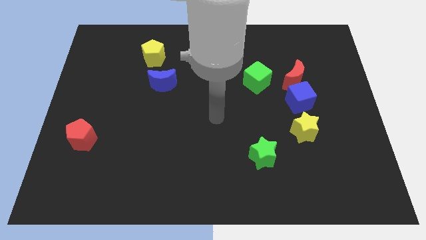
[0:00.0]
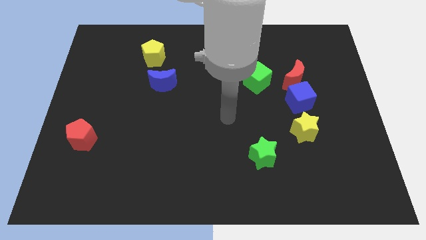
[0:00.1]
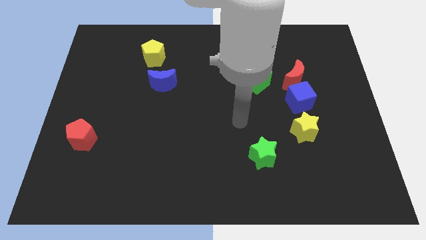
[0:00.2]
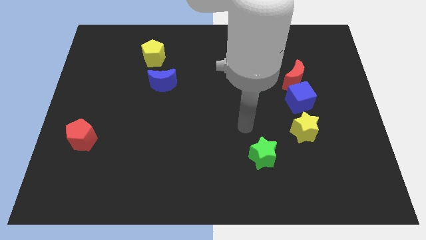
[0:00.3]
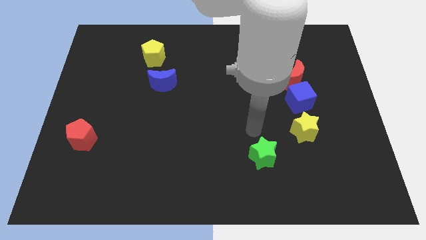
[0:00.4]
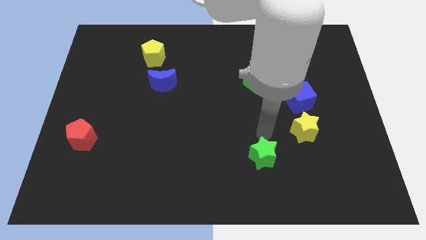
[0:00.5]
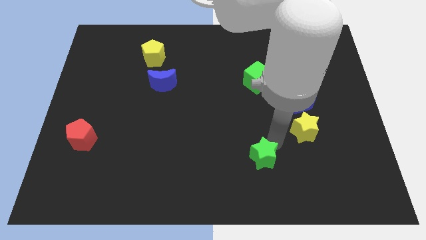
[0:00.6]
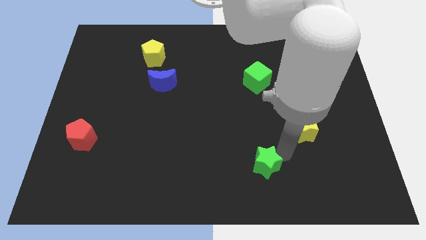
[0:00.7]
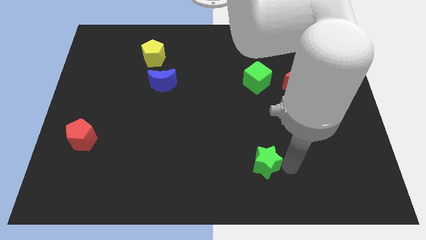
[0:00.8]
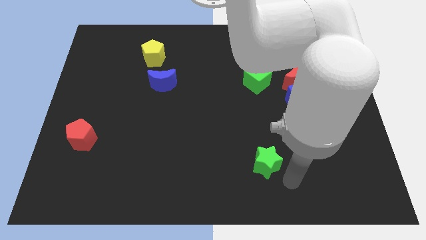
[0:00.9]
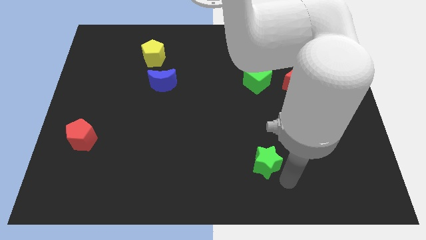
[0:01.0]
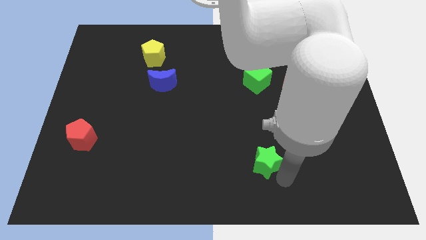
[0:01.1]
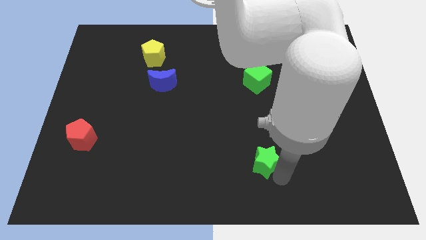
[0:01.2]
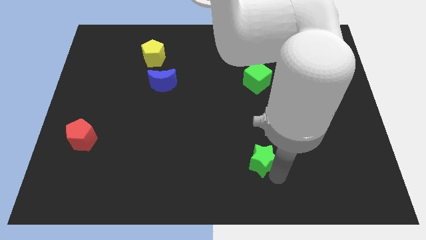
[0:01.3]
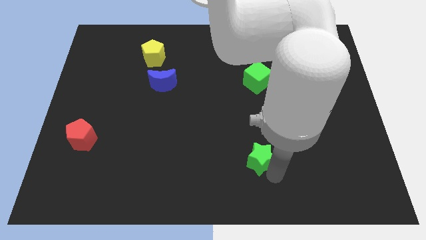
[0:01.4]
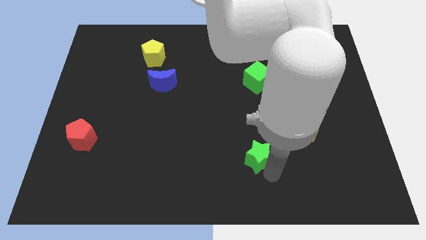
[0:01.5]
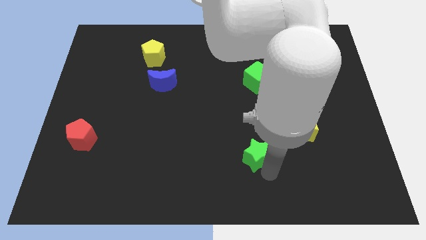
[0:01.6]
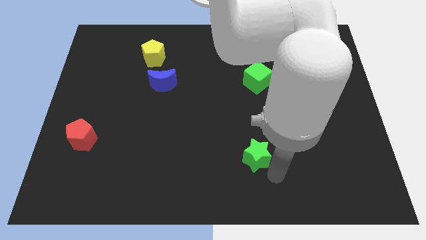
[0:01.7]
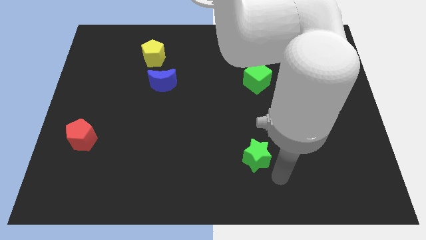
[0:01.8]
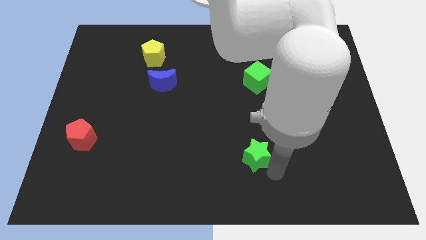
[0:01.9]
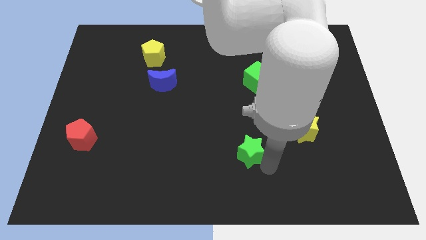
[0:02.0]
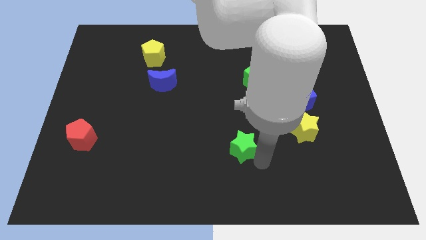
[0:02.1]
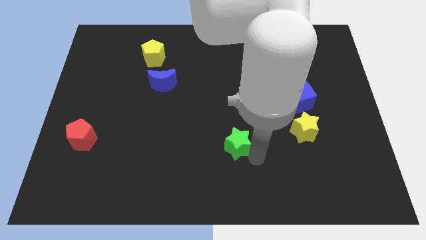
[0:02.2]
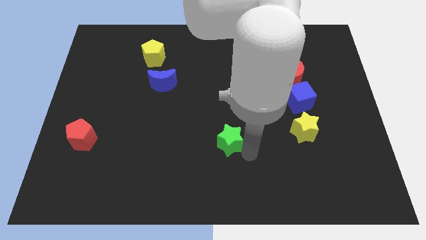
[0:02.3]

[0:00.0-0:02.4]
slightly move the green star upwards and left

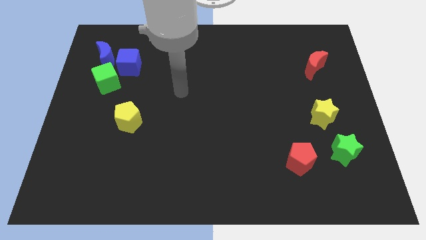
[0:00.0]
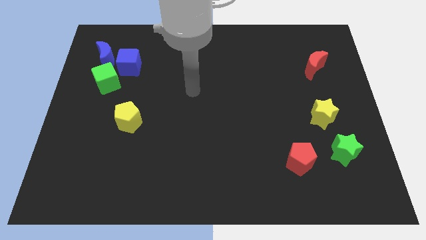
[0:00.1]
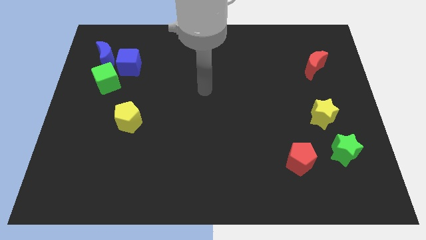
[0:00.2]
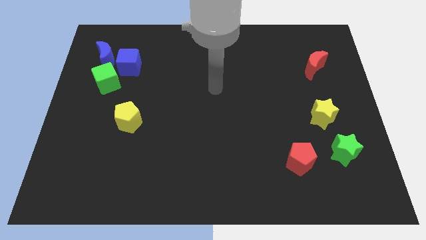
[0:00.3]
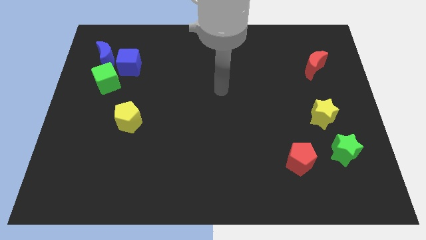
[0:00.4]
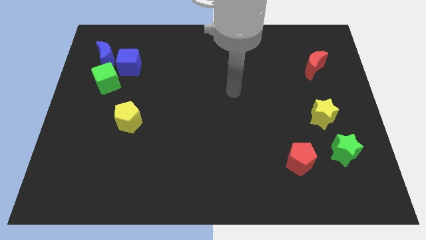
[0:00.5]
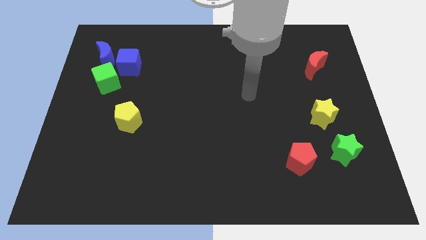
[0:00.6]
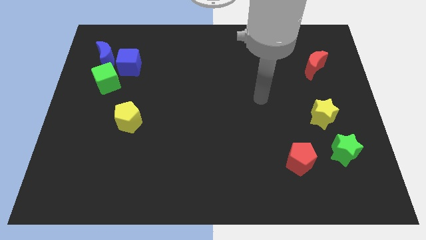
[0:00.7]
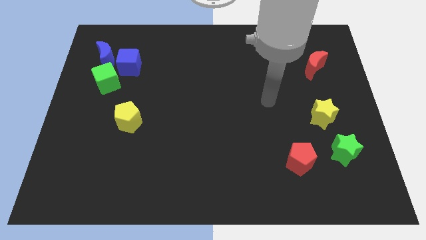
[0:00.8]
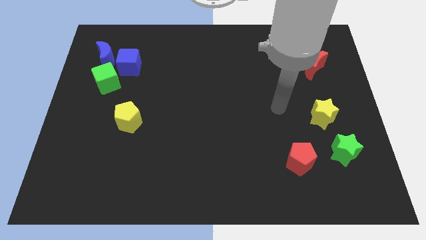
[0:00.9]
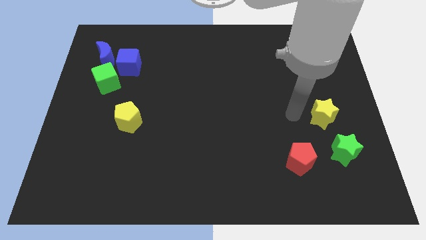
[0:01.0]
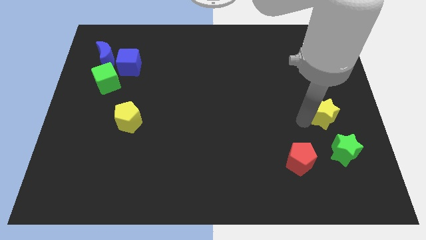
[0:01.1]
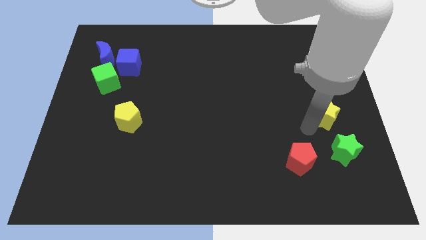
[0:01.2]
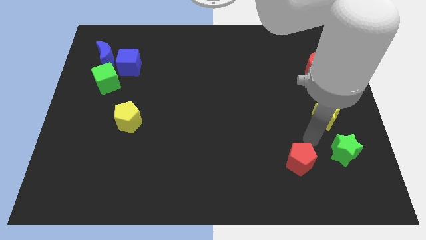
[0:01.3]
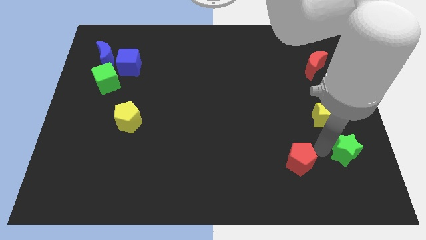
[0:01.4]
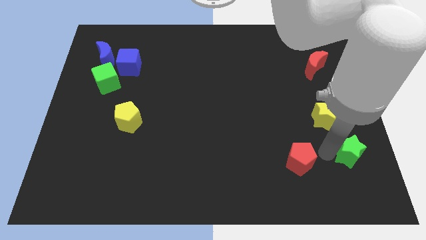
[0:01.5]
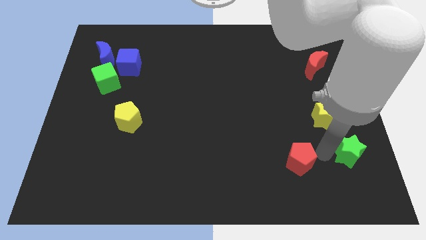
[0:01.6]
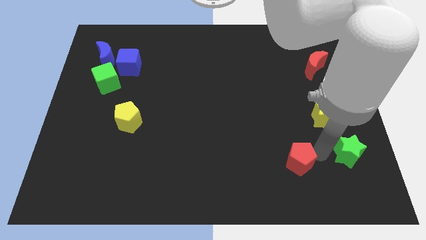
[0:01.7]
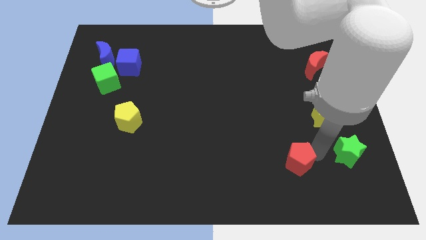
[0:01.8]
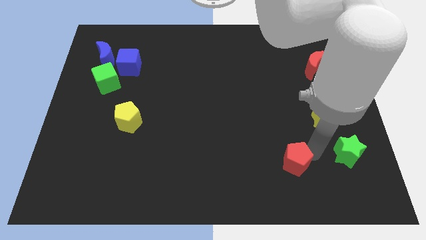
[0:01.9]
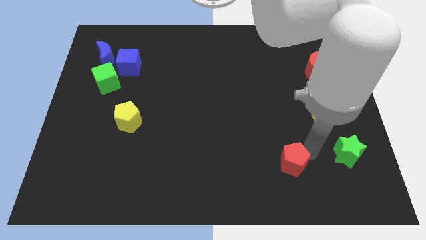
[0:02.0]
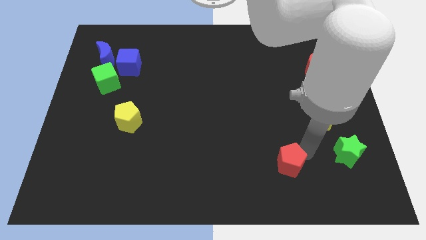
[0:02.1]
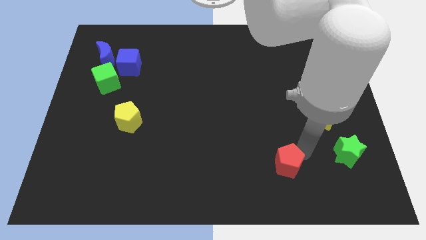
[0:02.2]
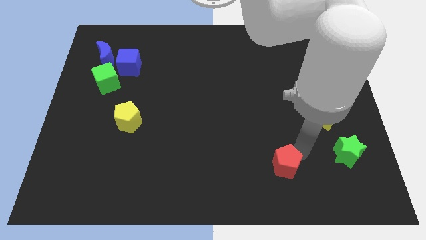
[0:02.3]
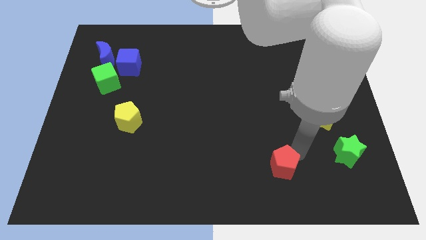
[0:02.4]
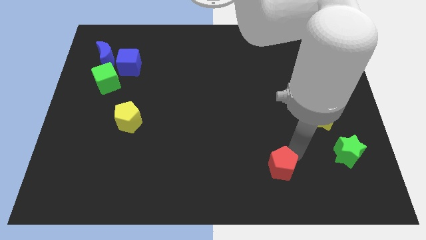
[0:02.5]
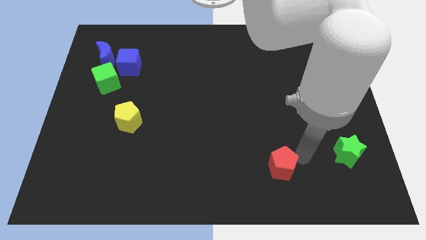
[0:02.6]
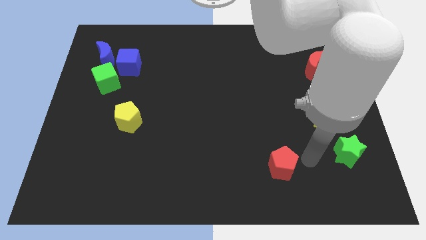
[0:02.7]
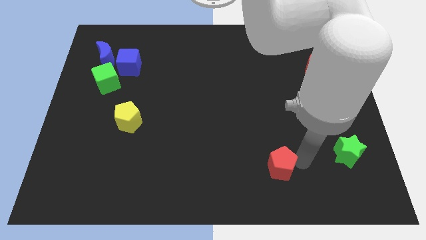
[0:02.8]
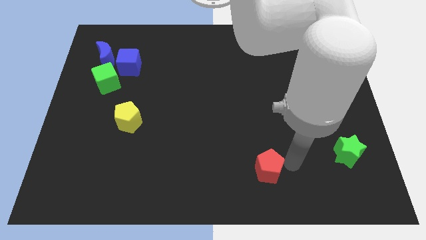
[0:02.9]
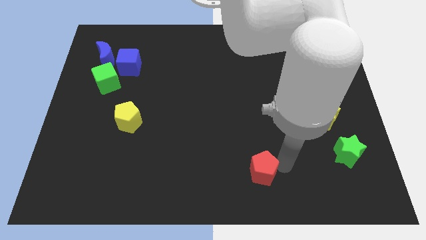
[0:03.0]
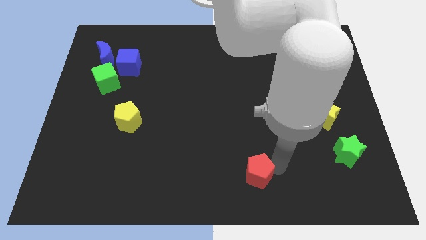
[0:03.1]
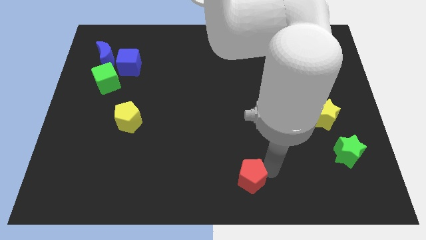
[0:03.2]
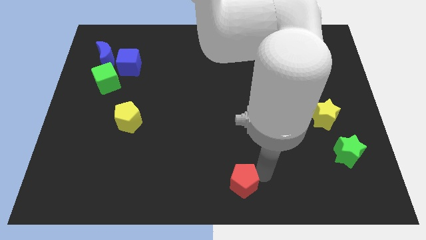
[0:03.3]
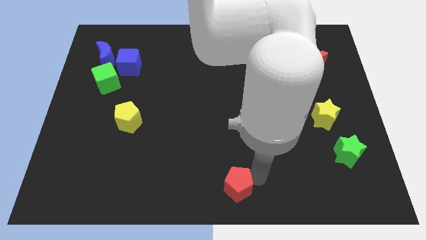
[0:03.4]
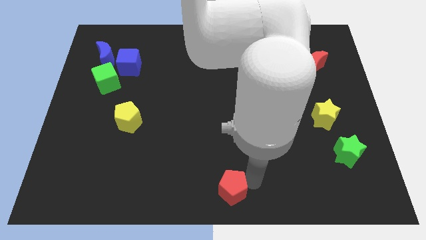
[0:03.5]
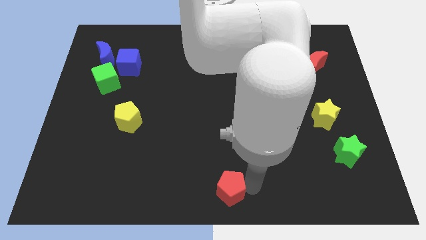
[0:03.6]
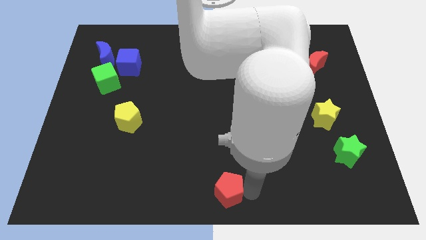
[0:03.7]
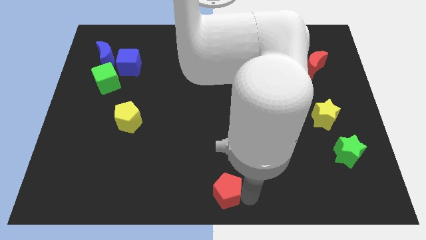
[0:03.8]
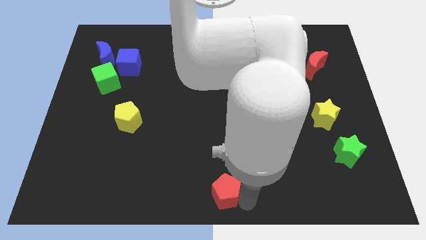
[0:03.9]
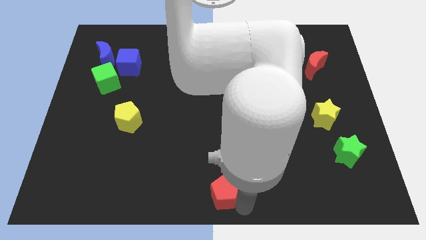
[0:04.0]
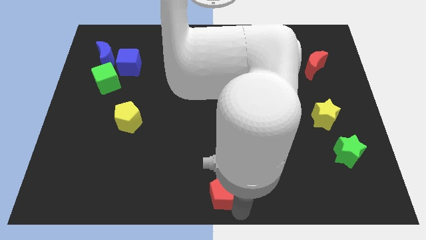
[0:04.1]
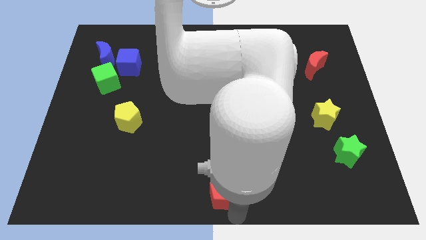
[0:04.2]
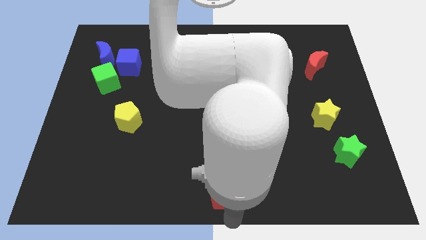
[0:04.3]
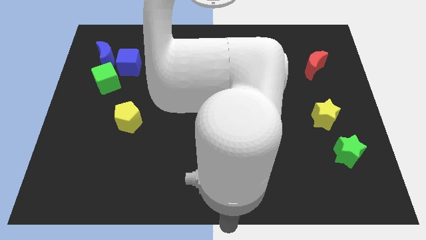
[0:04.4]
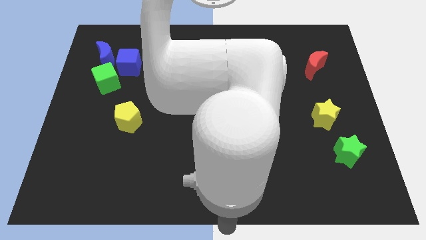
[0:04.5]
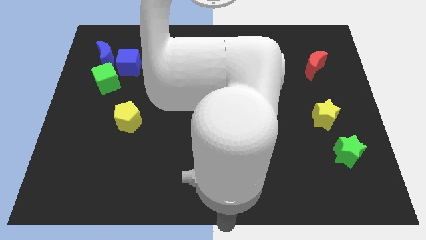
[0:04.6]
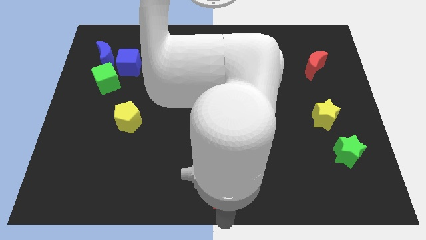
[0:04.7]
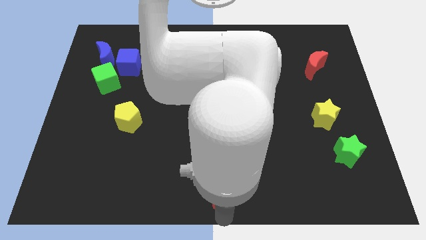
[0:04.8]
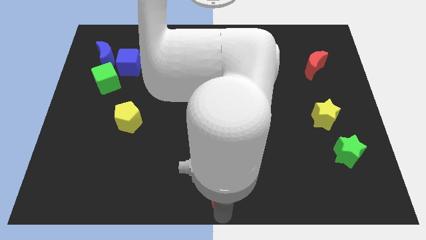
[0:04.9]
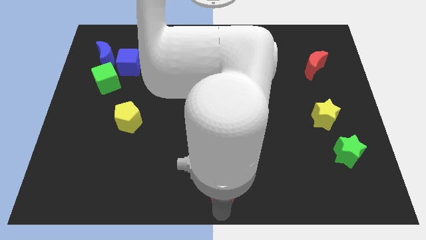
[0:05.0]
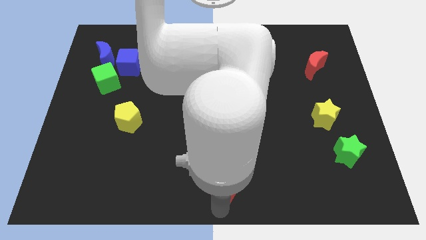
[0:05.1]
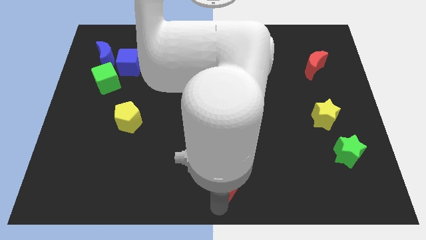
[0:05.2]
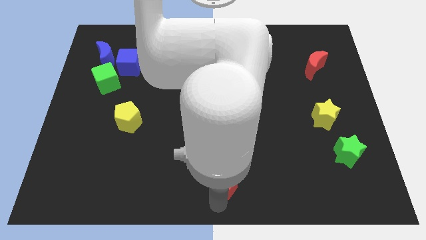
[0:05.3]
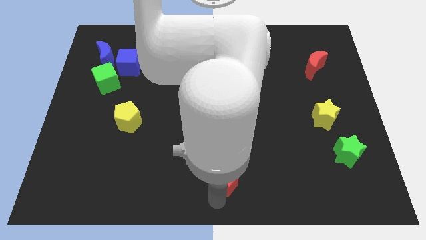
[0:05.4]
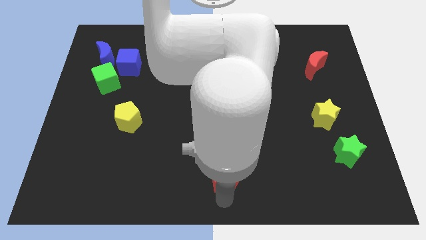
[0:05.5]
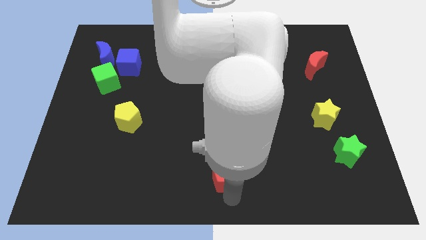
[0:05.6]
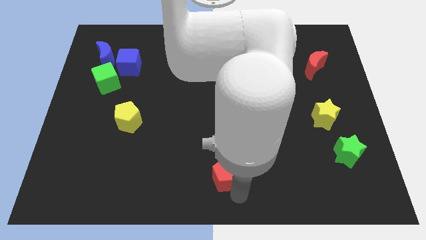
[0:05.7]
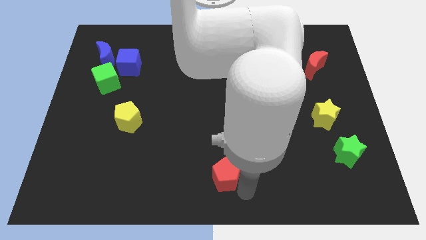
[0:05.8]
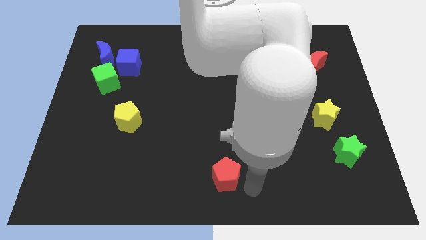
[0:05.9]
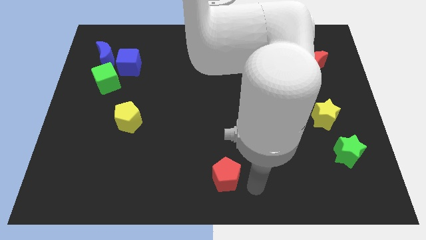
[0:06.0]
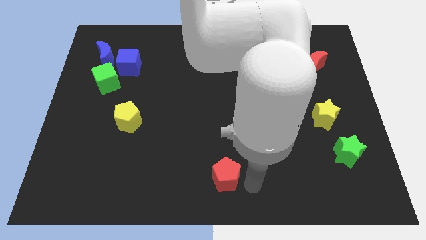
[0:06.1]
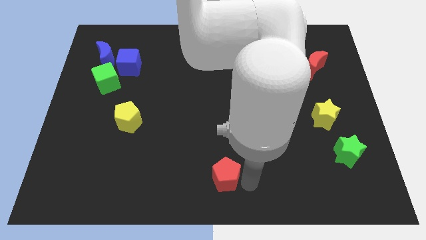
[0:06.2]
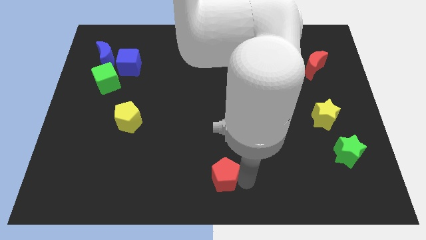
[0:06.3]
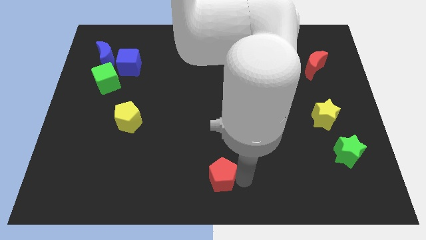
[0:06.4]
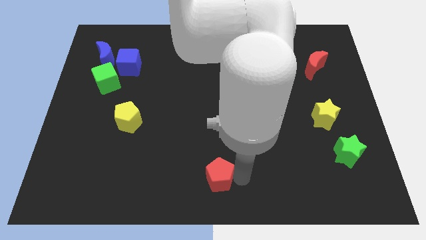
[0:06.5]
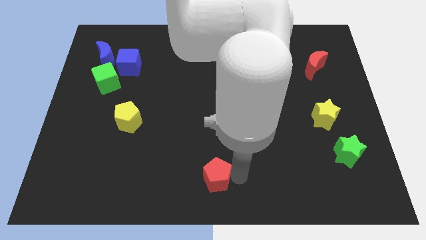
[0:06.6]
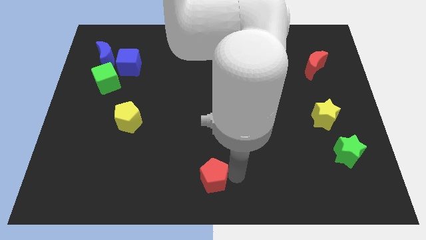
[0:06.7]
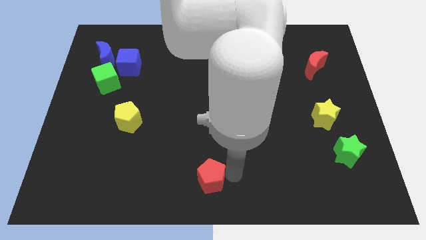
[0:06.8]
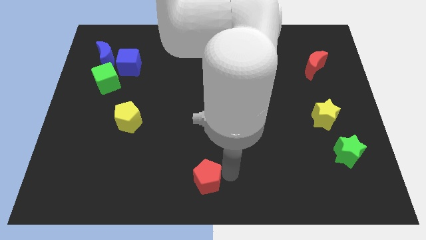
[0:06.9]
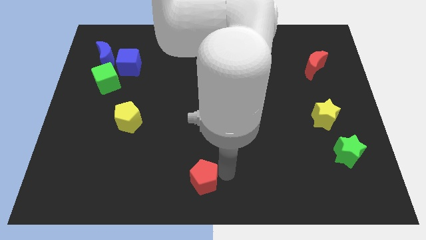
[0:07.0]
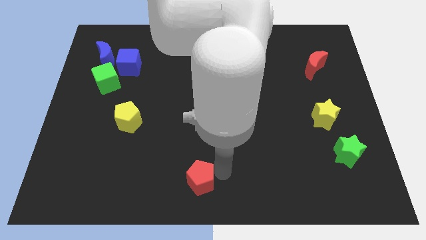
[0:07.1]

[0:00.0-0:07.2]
slide the red pentagon to the left
